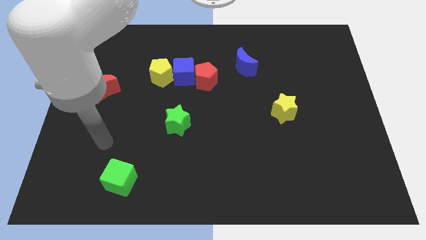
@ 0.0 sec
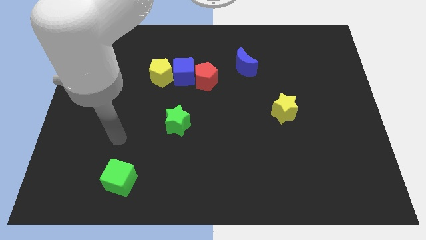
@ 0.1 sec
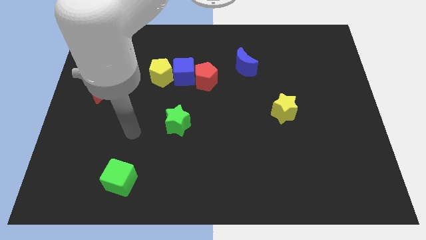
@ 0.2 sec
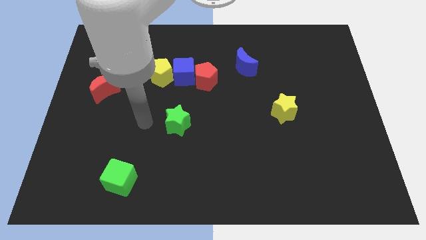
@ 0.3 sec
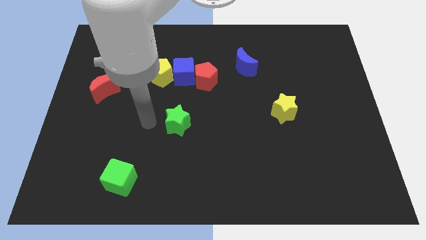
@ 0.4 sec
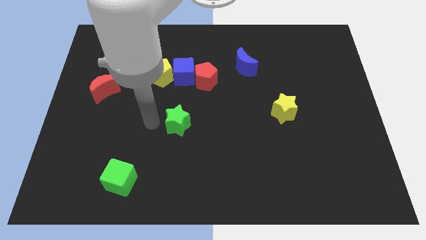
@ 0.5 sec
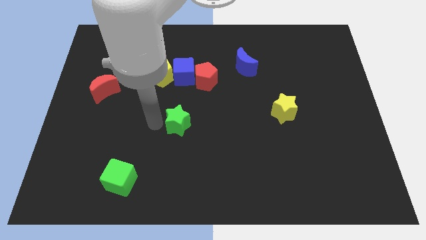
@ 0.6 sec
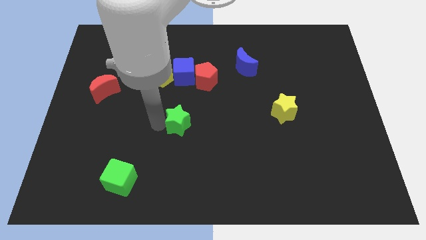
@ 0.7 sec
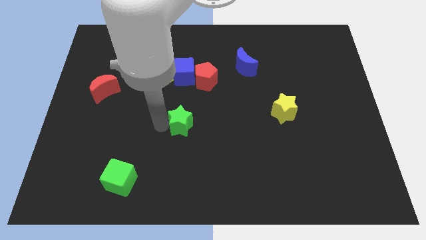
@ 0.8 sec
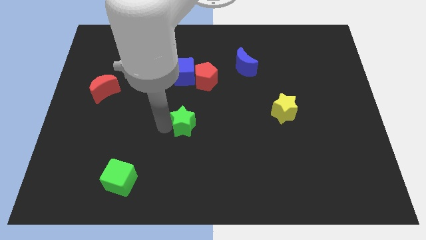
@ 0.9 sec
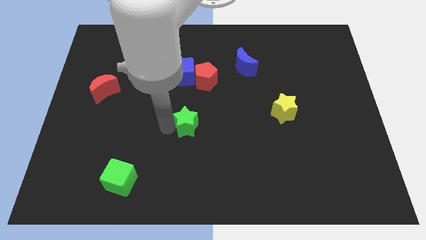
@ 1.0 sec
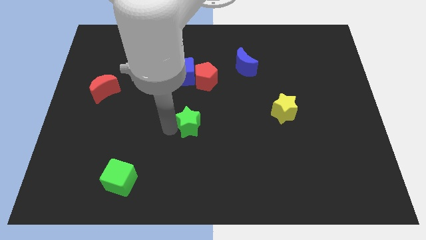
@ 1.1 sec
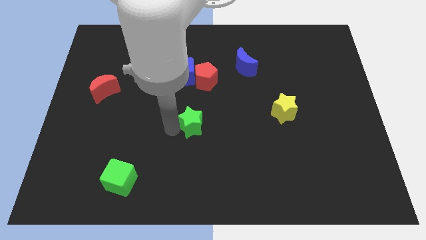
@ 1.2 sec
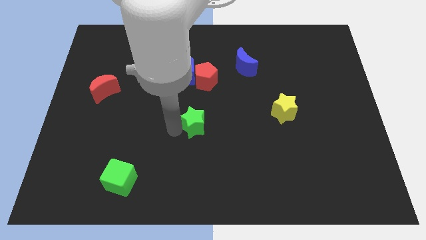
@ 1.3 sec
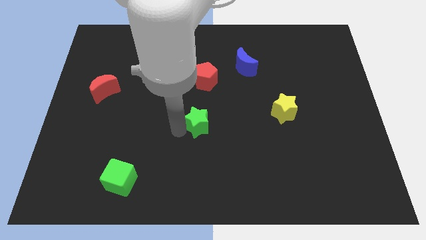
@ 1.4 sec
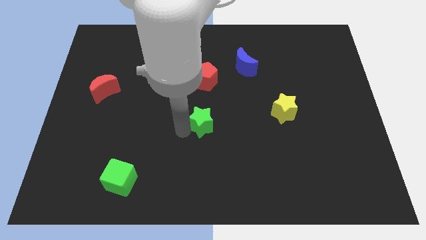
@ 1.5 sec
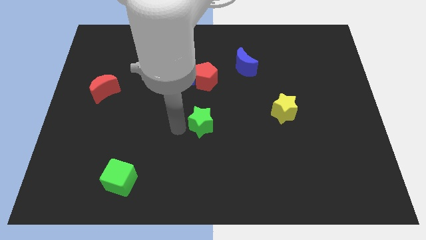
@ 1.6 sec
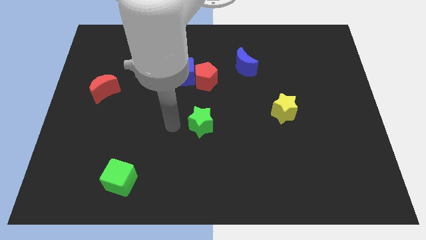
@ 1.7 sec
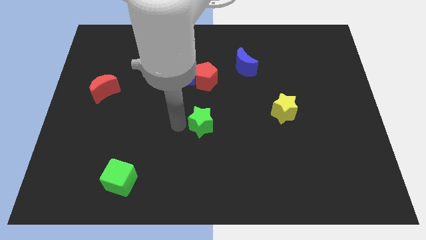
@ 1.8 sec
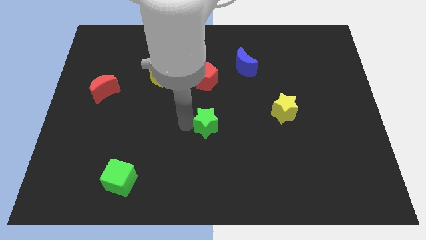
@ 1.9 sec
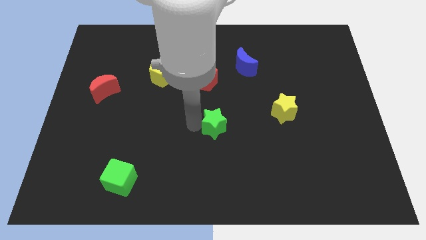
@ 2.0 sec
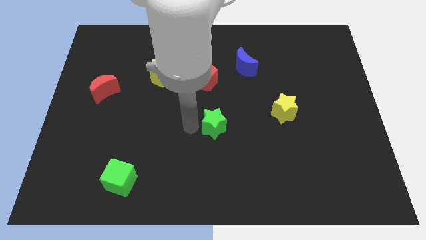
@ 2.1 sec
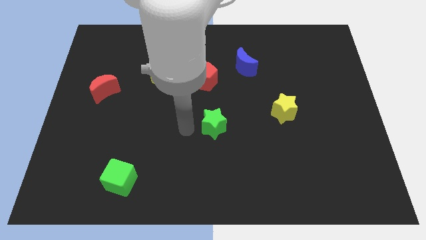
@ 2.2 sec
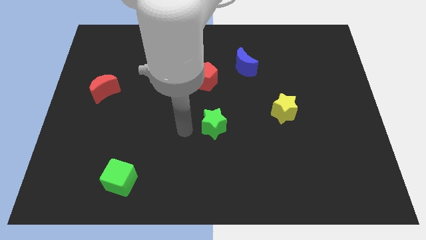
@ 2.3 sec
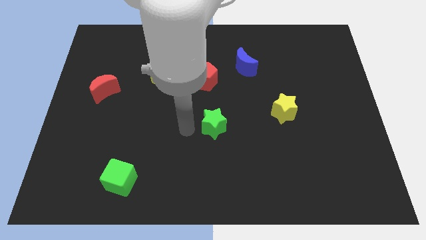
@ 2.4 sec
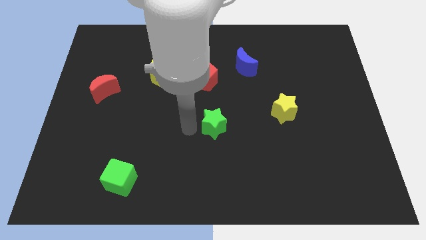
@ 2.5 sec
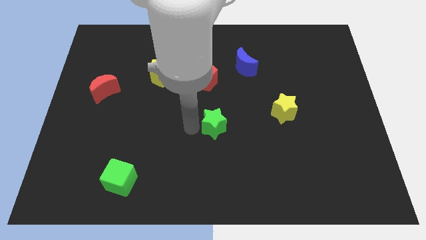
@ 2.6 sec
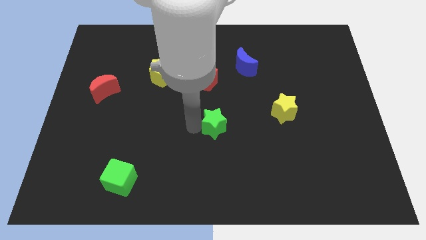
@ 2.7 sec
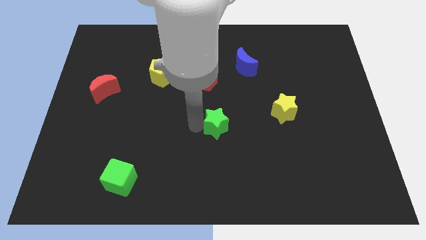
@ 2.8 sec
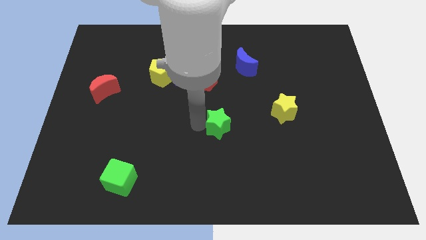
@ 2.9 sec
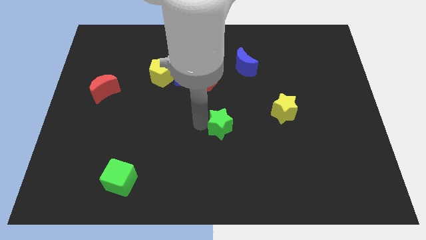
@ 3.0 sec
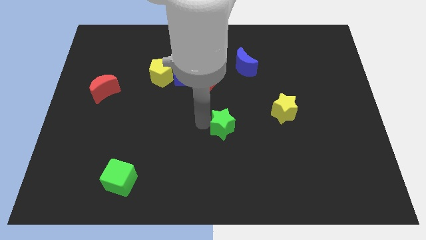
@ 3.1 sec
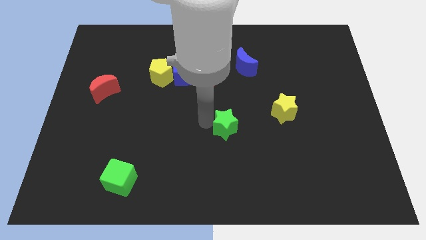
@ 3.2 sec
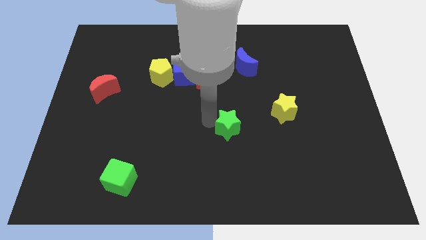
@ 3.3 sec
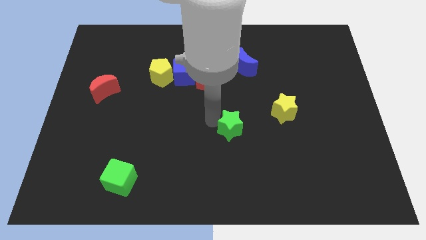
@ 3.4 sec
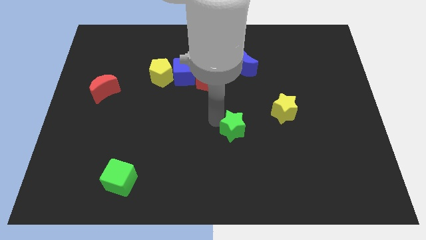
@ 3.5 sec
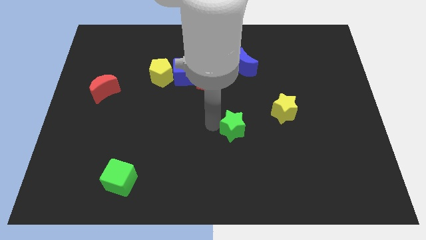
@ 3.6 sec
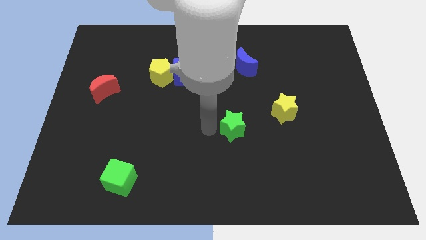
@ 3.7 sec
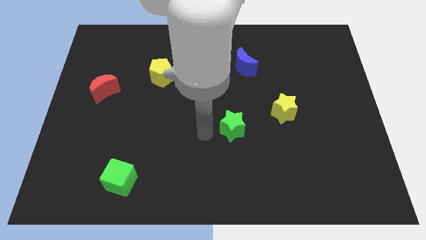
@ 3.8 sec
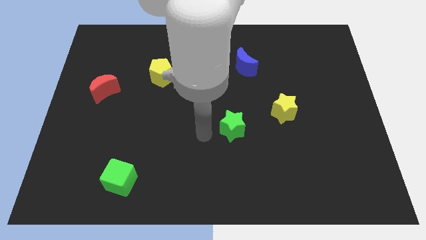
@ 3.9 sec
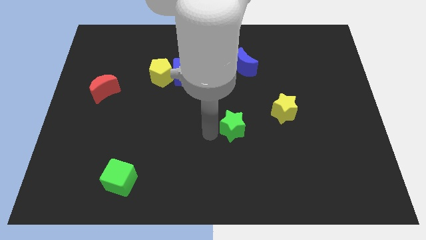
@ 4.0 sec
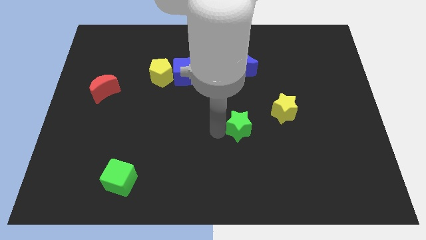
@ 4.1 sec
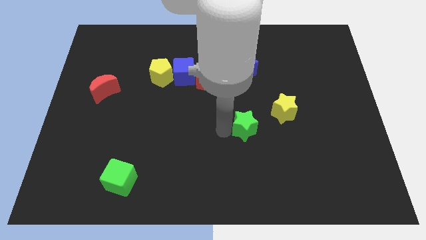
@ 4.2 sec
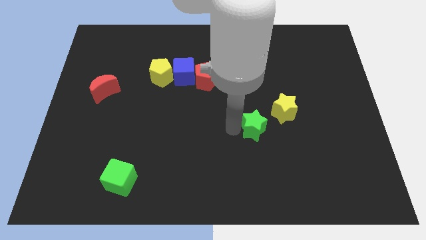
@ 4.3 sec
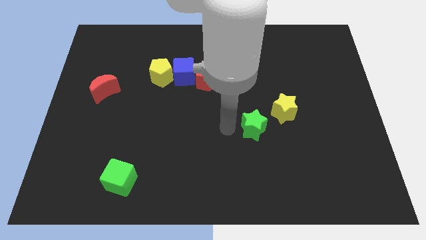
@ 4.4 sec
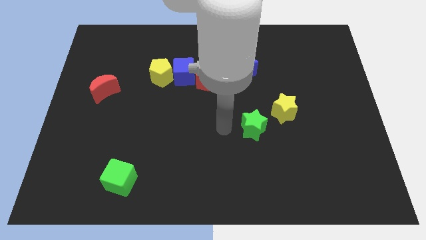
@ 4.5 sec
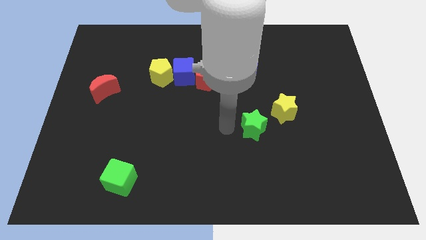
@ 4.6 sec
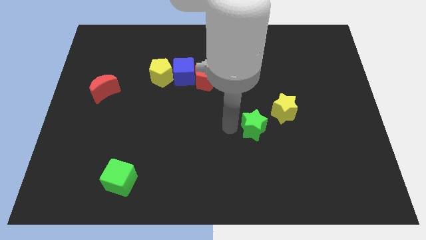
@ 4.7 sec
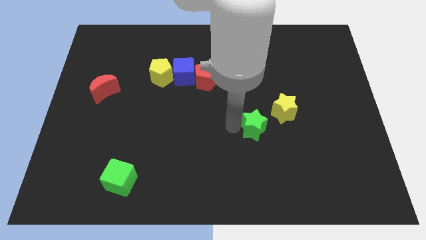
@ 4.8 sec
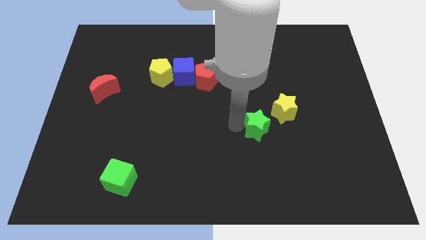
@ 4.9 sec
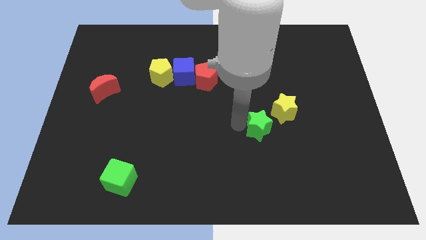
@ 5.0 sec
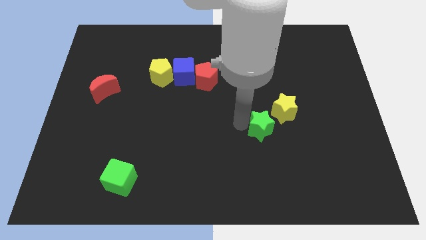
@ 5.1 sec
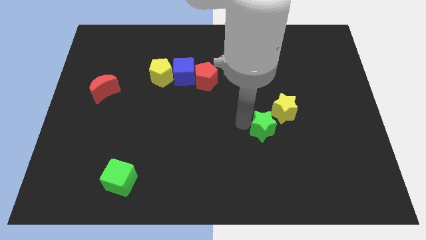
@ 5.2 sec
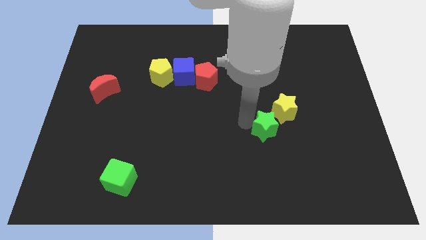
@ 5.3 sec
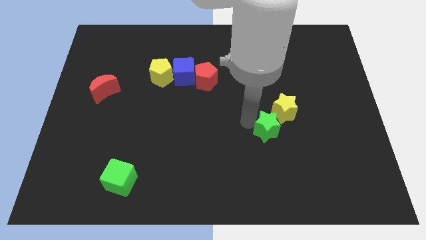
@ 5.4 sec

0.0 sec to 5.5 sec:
slide the green star right

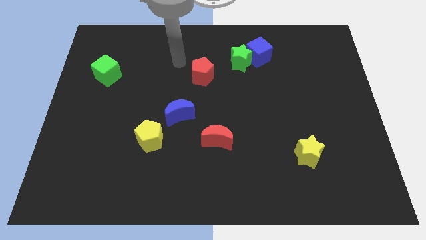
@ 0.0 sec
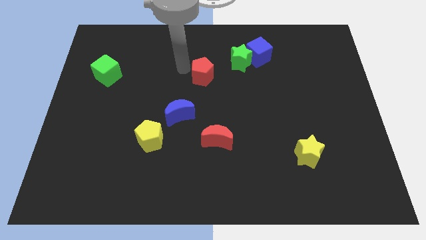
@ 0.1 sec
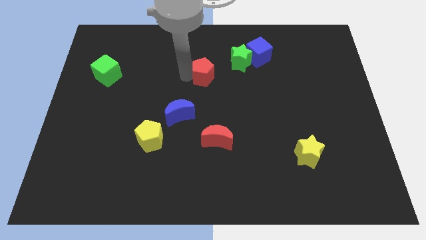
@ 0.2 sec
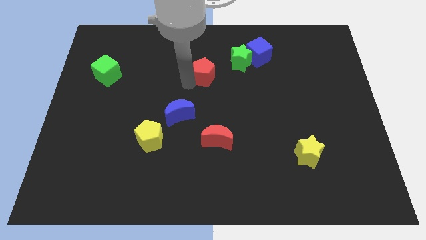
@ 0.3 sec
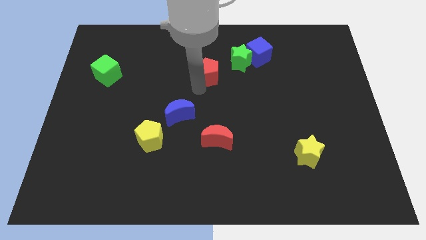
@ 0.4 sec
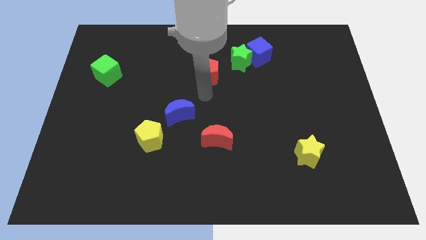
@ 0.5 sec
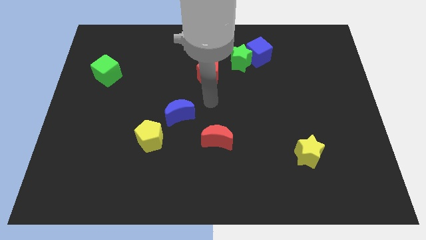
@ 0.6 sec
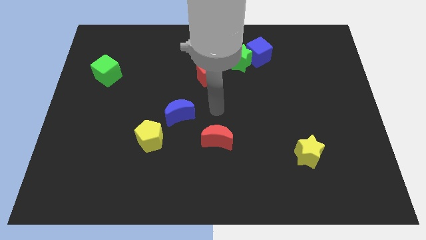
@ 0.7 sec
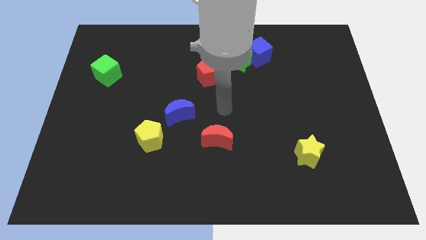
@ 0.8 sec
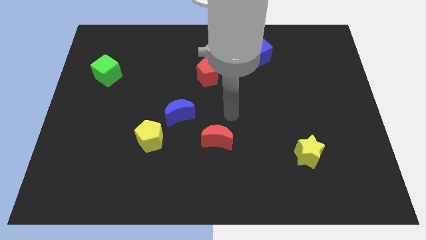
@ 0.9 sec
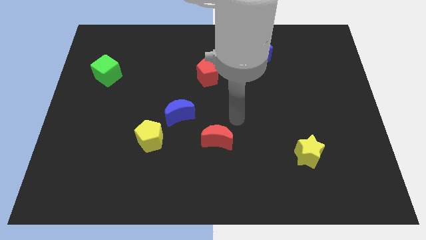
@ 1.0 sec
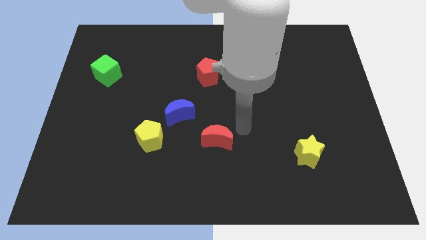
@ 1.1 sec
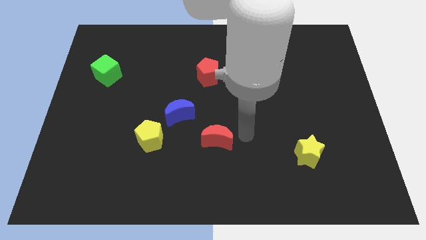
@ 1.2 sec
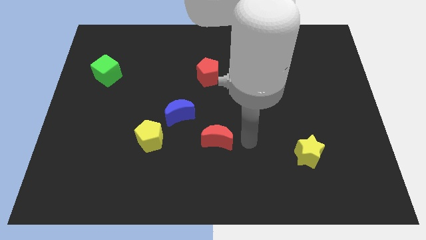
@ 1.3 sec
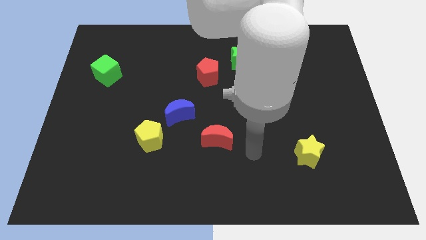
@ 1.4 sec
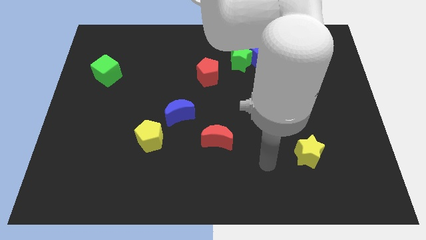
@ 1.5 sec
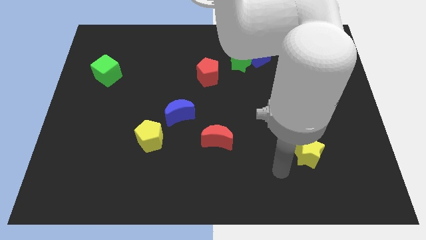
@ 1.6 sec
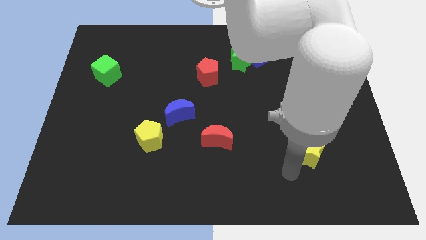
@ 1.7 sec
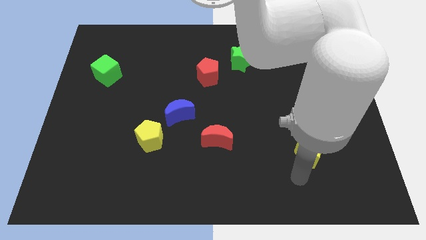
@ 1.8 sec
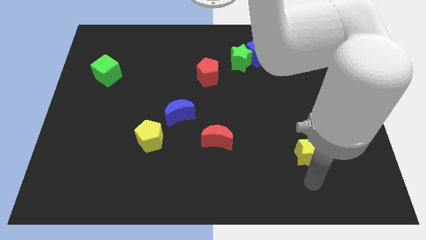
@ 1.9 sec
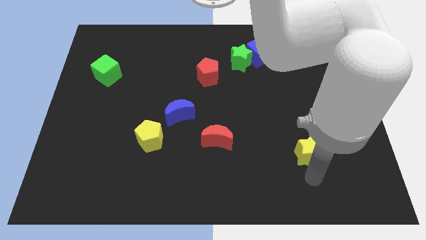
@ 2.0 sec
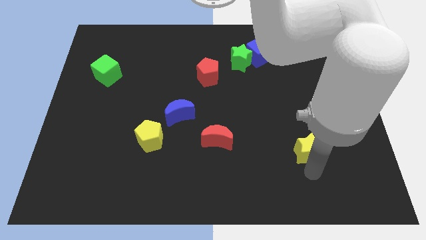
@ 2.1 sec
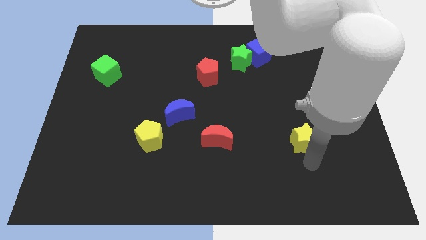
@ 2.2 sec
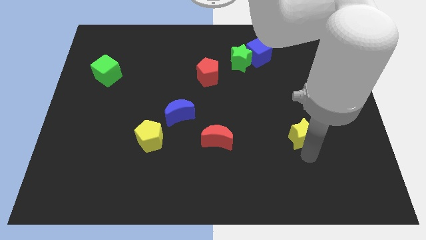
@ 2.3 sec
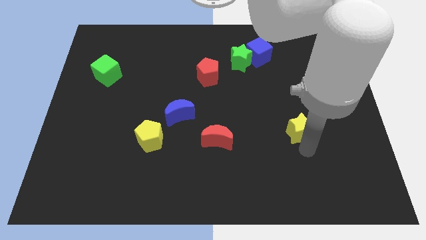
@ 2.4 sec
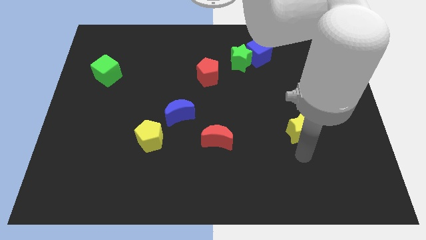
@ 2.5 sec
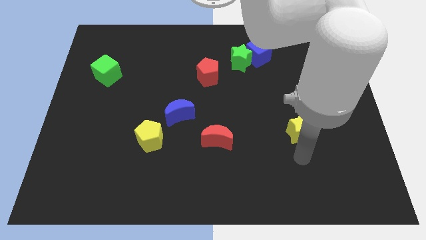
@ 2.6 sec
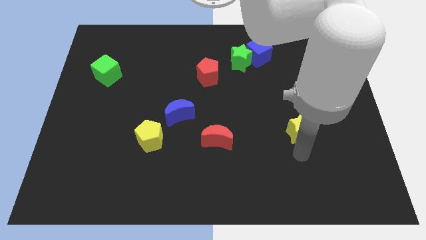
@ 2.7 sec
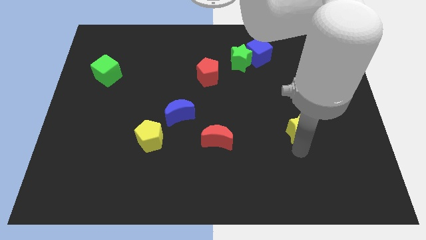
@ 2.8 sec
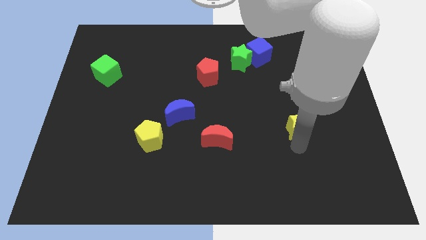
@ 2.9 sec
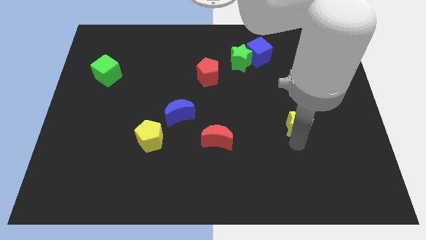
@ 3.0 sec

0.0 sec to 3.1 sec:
slide the yellow star a bit up
